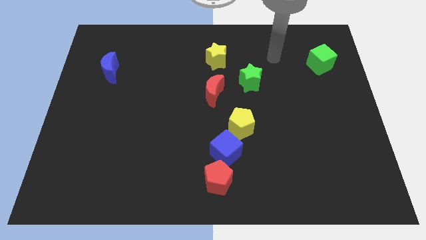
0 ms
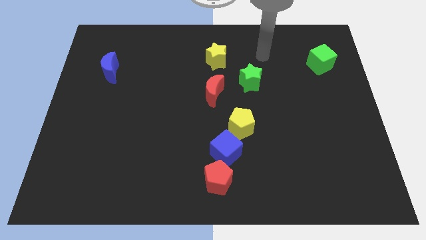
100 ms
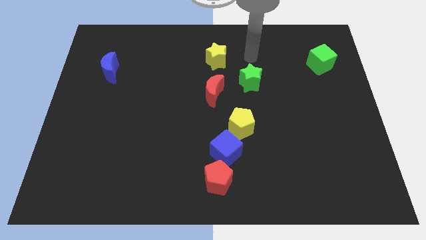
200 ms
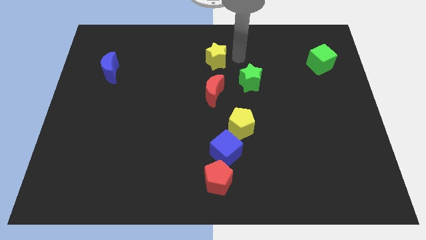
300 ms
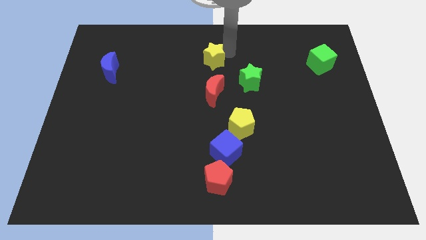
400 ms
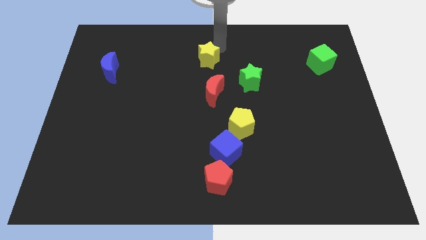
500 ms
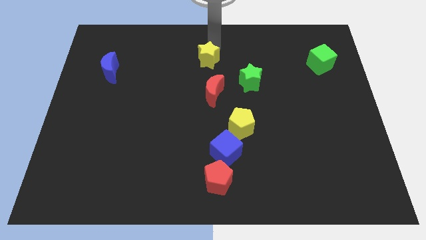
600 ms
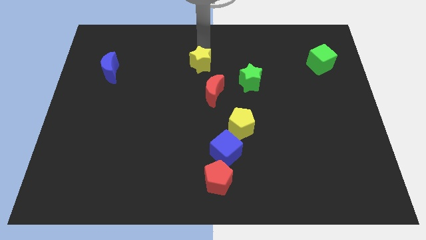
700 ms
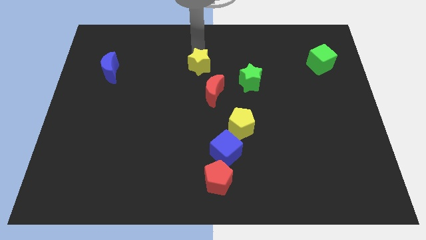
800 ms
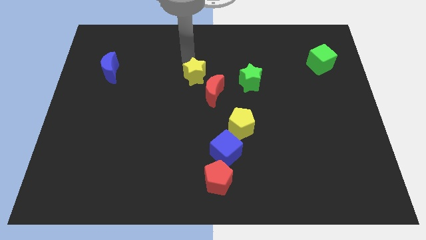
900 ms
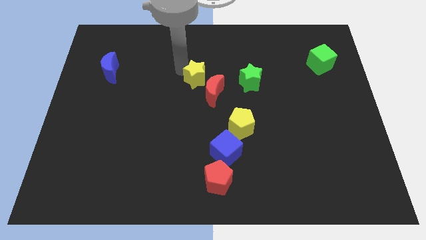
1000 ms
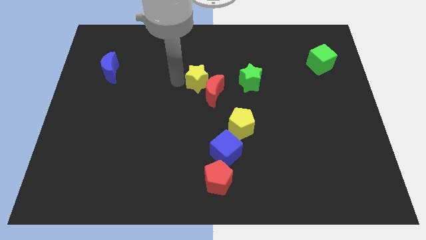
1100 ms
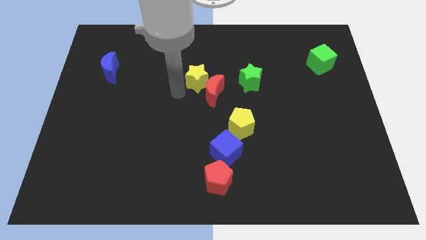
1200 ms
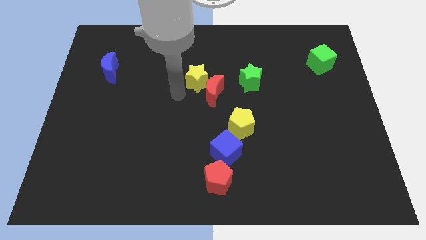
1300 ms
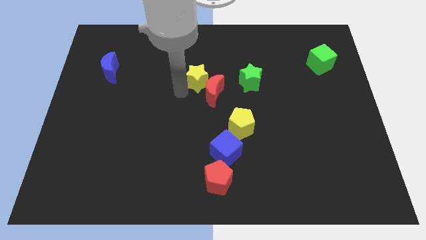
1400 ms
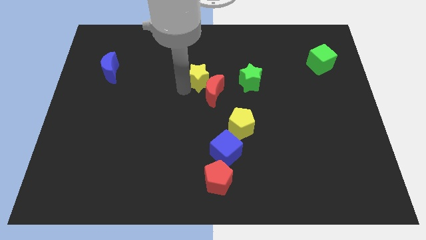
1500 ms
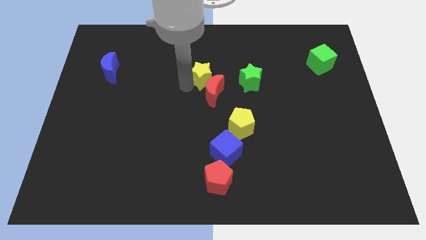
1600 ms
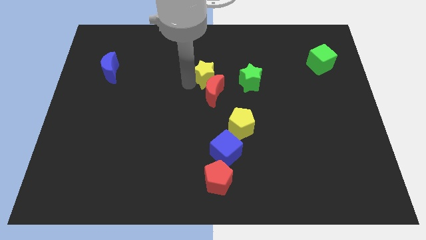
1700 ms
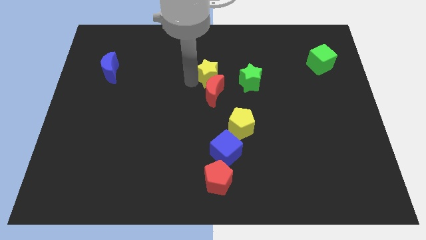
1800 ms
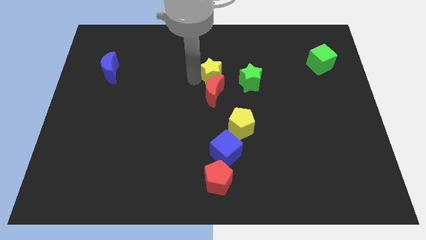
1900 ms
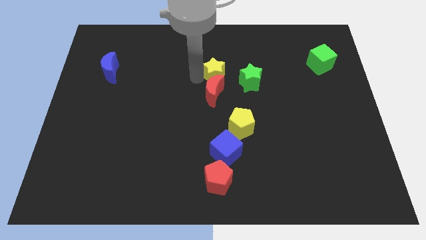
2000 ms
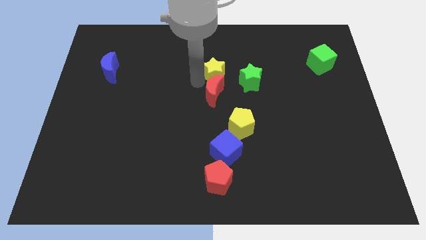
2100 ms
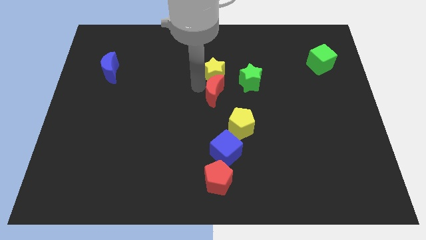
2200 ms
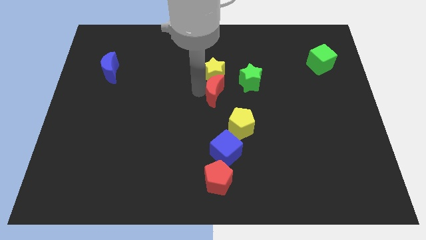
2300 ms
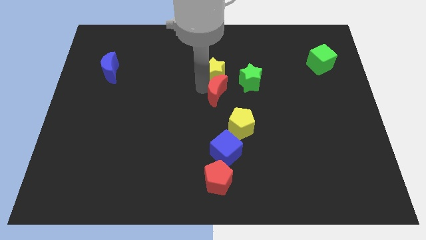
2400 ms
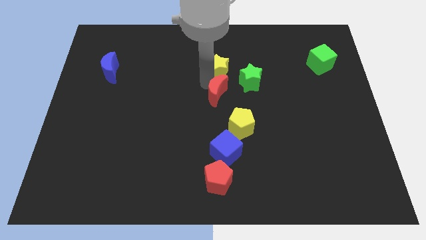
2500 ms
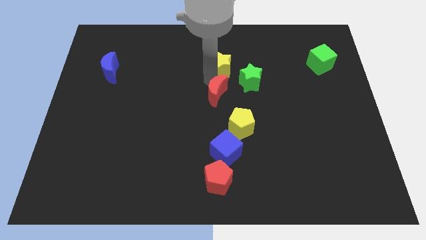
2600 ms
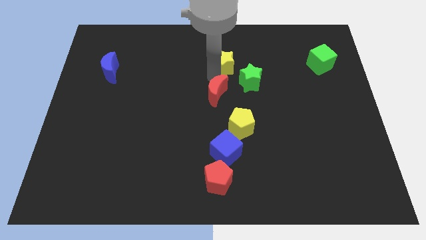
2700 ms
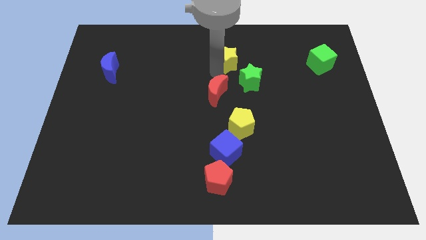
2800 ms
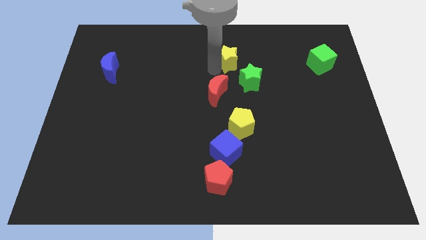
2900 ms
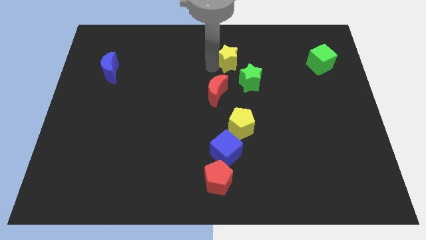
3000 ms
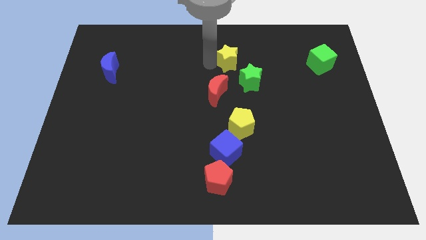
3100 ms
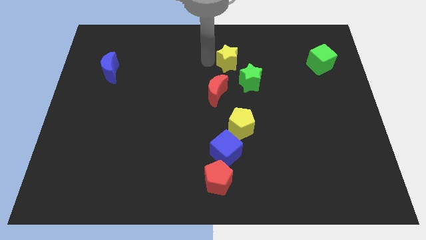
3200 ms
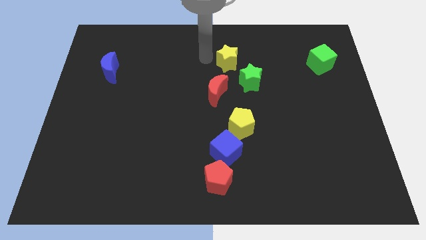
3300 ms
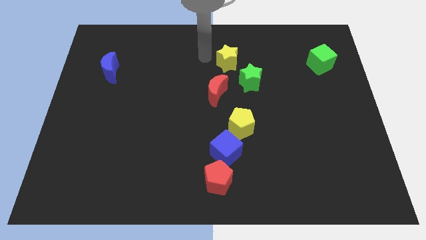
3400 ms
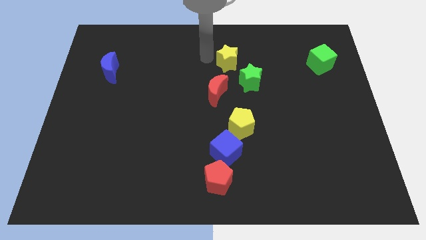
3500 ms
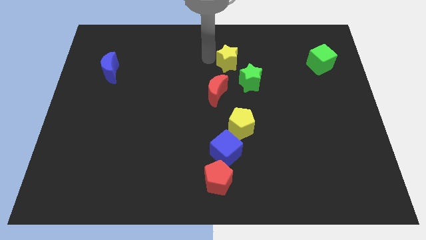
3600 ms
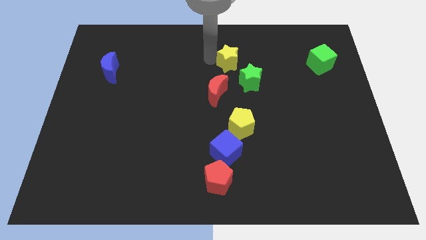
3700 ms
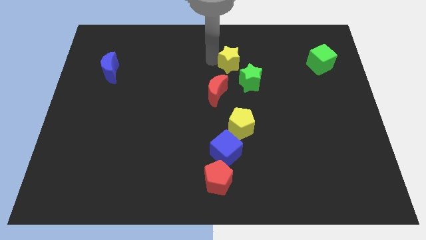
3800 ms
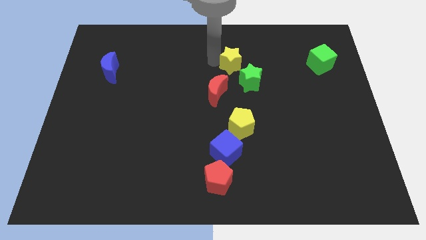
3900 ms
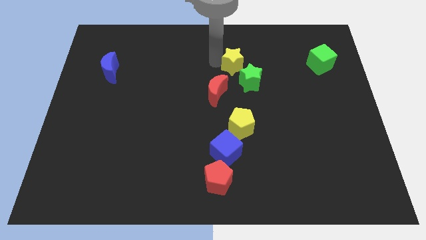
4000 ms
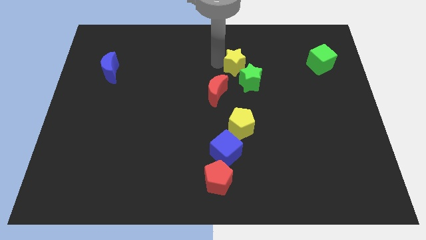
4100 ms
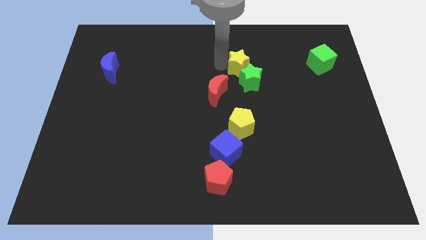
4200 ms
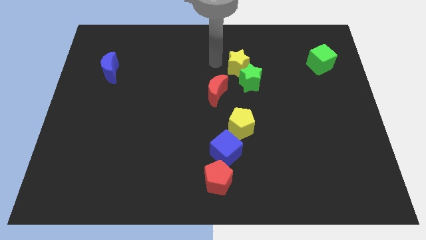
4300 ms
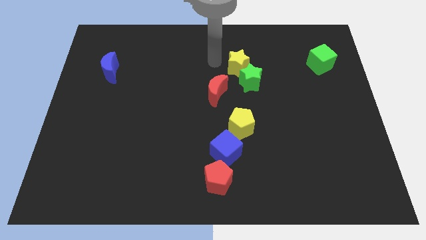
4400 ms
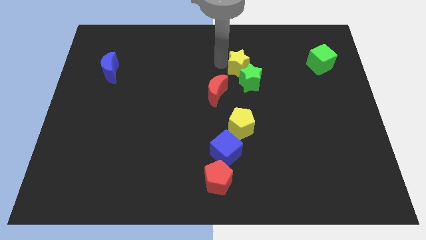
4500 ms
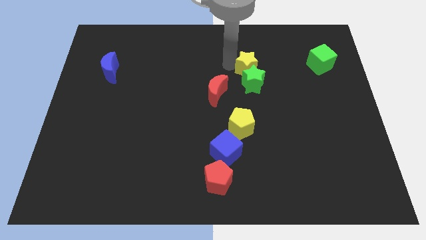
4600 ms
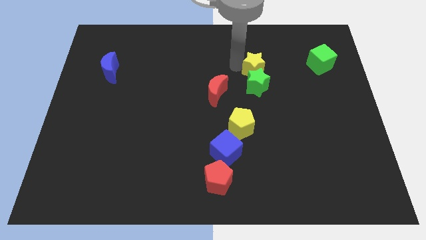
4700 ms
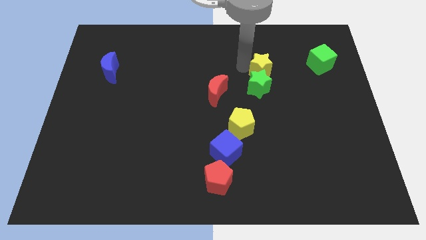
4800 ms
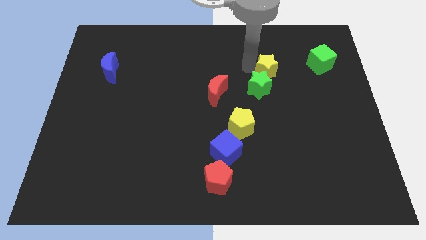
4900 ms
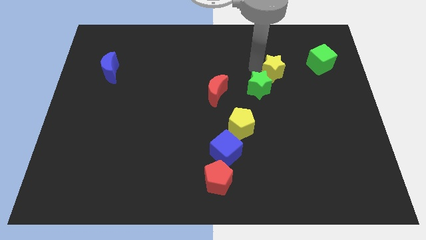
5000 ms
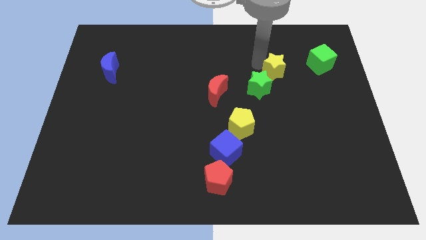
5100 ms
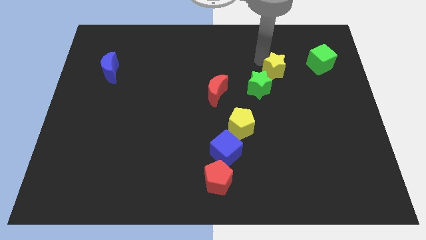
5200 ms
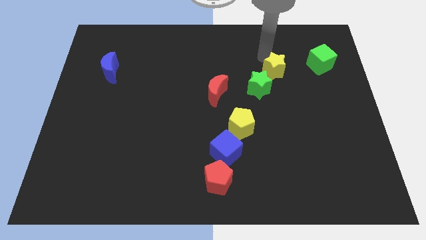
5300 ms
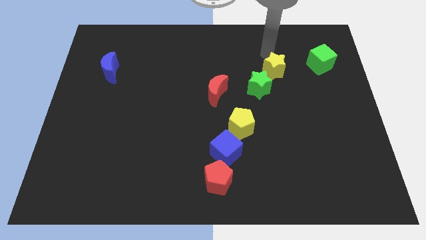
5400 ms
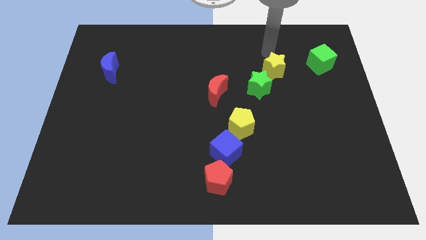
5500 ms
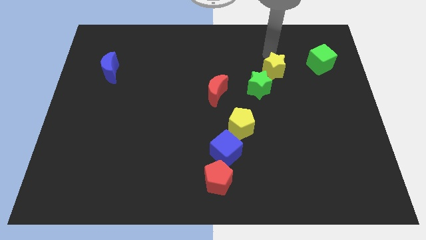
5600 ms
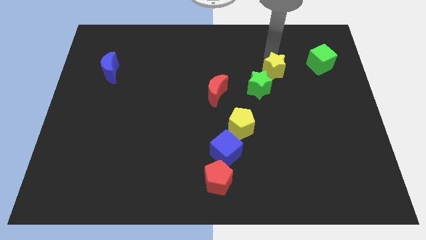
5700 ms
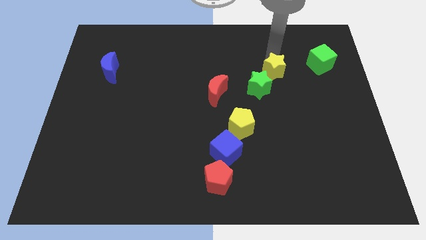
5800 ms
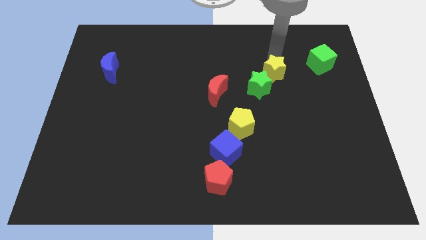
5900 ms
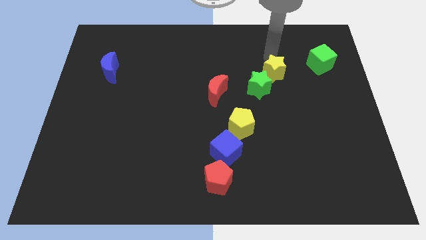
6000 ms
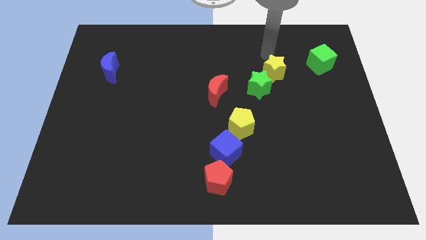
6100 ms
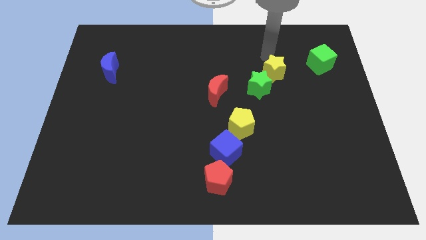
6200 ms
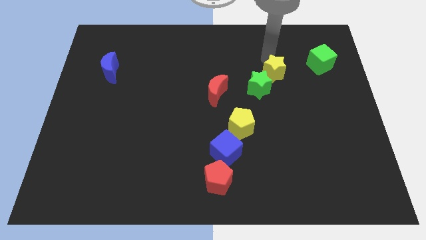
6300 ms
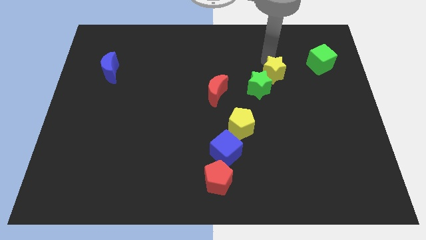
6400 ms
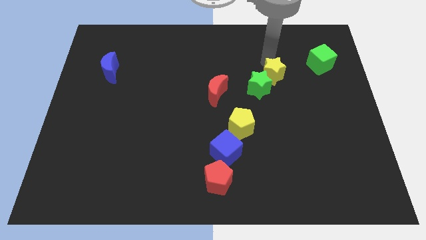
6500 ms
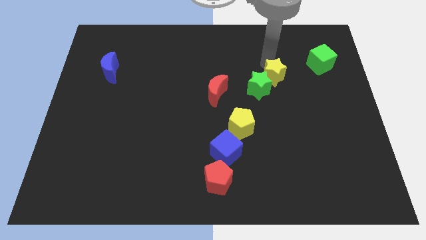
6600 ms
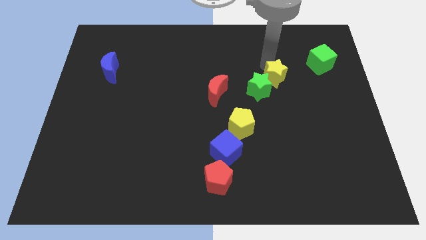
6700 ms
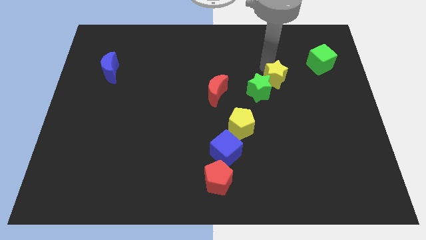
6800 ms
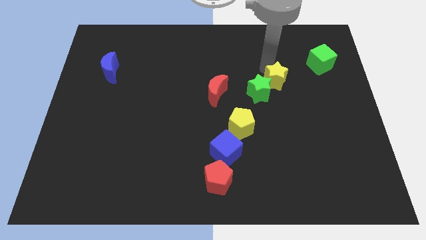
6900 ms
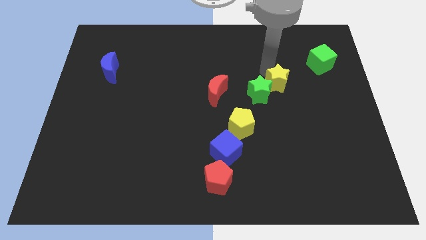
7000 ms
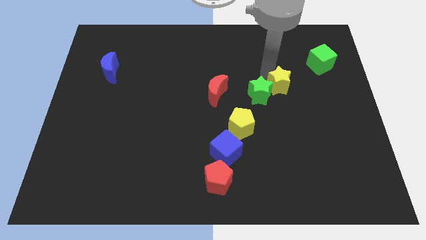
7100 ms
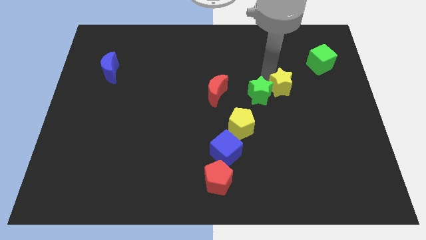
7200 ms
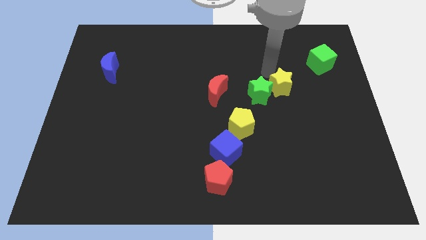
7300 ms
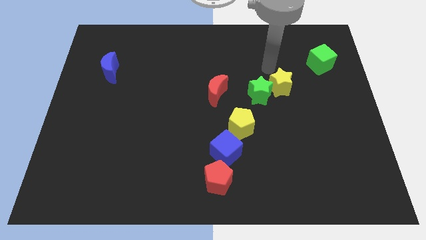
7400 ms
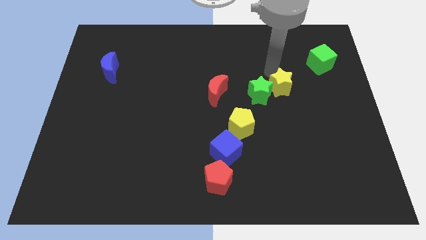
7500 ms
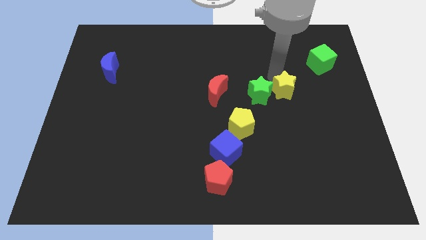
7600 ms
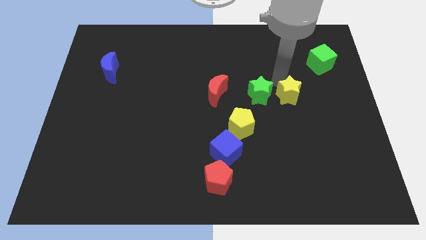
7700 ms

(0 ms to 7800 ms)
push the yellow star downwards and to the right
